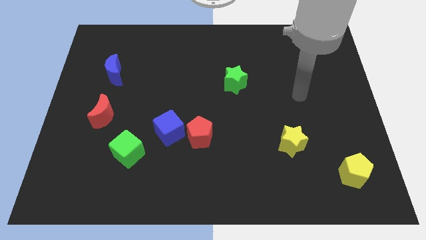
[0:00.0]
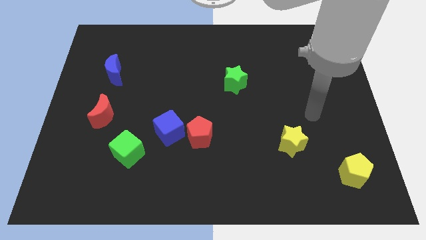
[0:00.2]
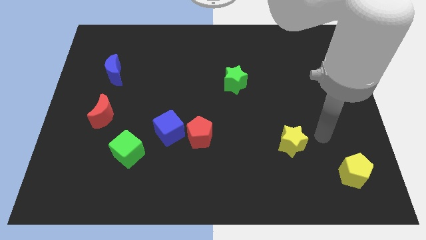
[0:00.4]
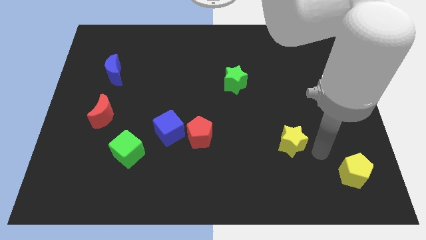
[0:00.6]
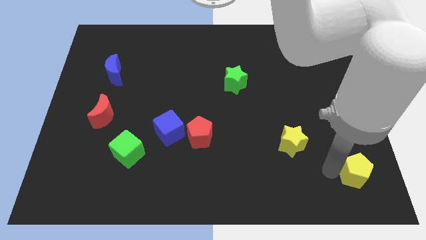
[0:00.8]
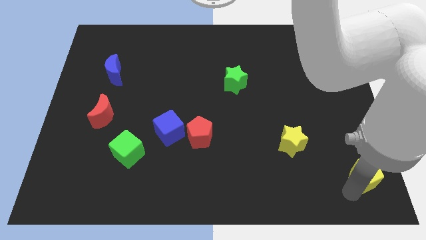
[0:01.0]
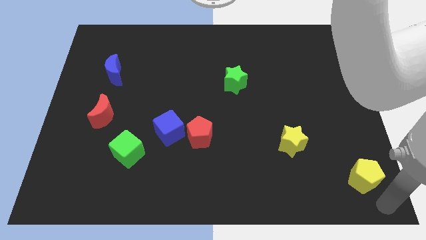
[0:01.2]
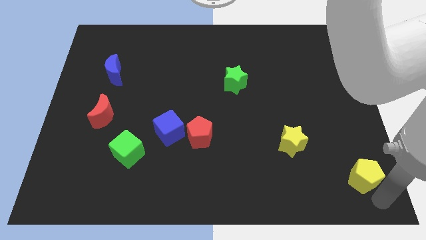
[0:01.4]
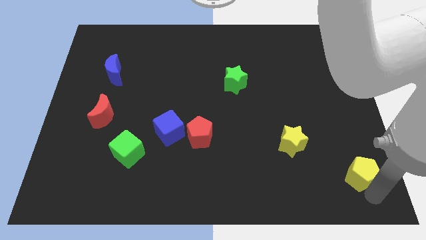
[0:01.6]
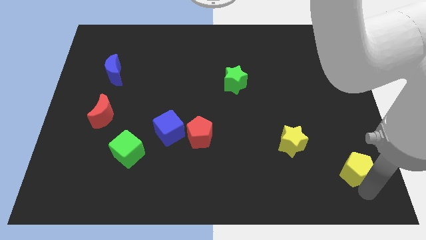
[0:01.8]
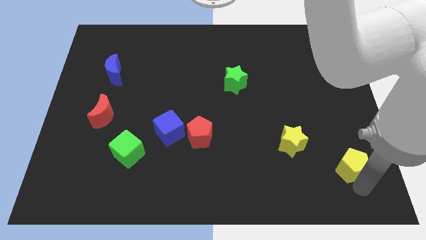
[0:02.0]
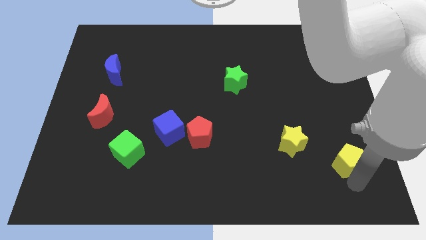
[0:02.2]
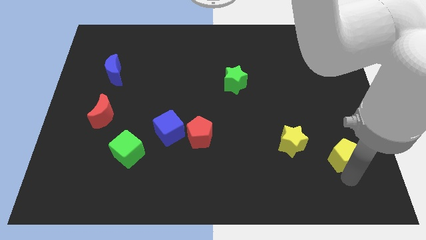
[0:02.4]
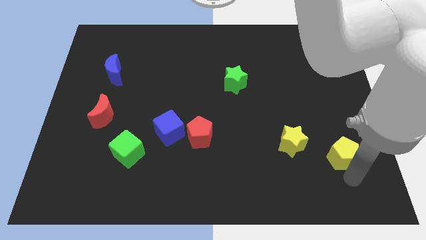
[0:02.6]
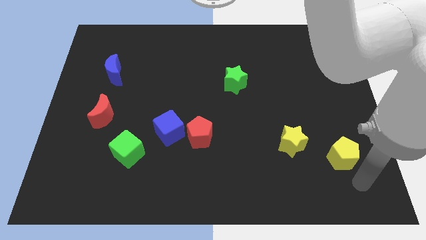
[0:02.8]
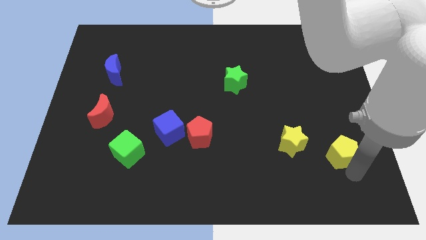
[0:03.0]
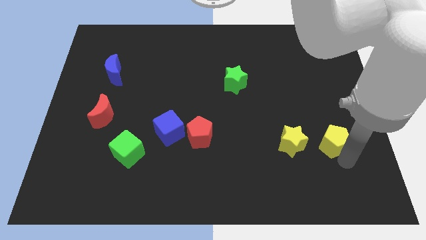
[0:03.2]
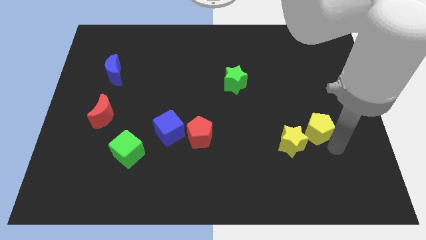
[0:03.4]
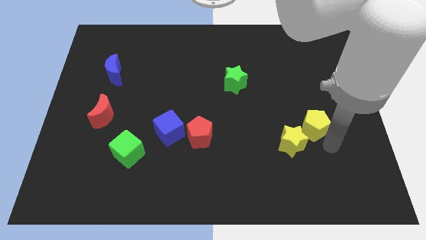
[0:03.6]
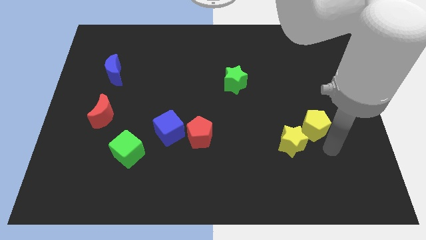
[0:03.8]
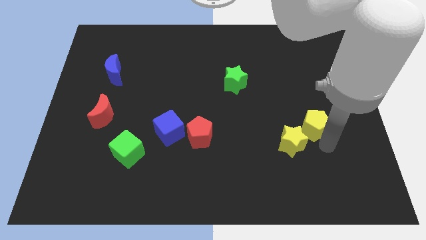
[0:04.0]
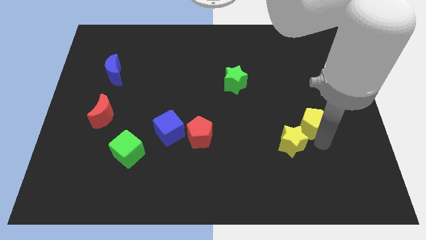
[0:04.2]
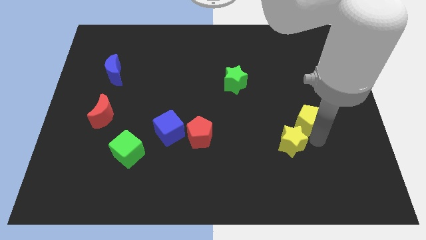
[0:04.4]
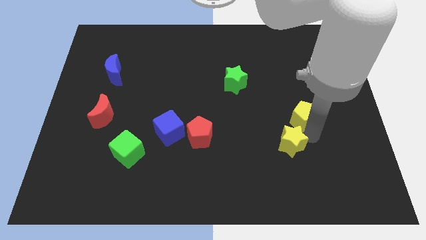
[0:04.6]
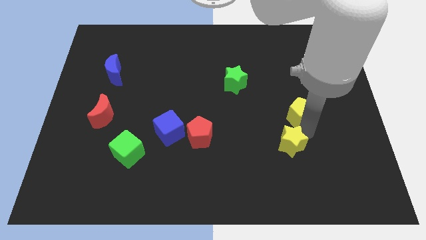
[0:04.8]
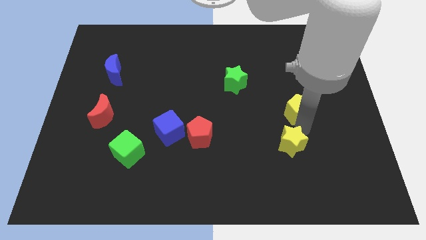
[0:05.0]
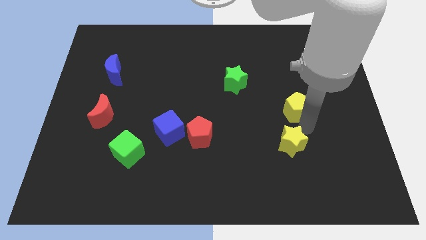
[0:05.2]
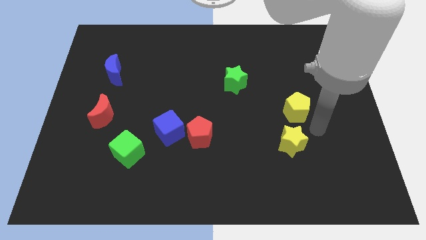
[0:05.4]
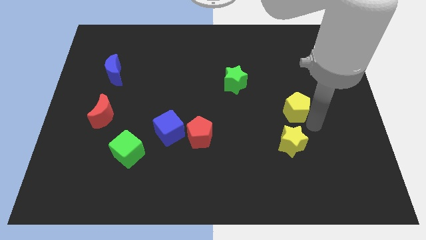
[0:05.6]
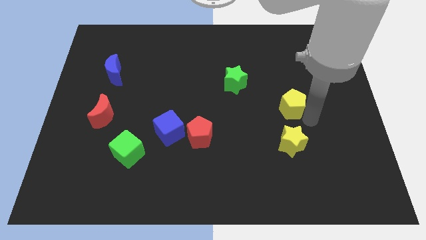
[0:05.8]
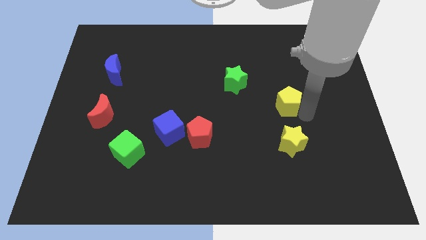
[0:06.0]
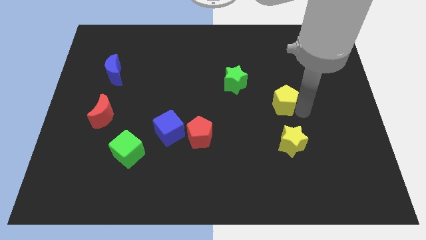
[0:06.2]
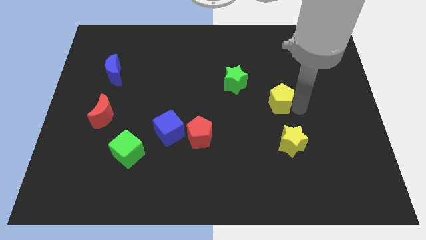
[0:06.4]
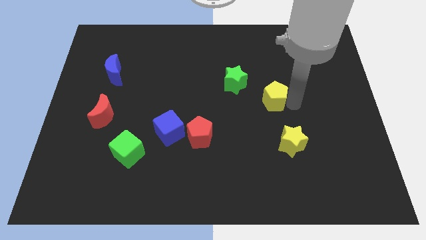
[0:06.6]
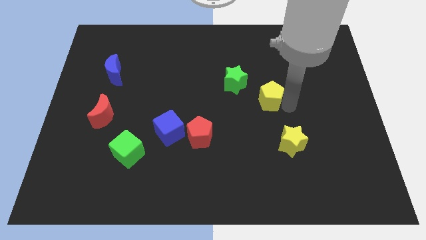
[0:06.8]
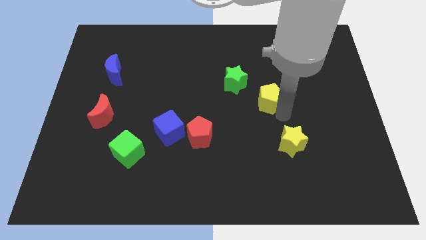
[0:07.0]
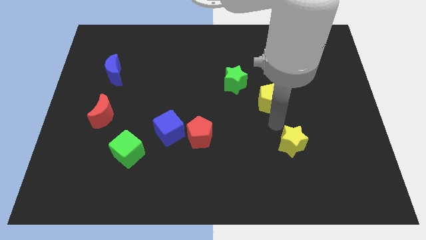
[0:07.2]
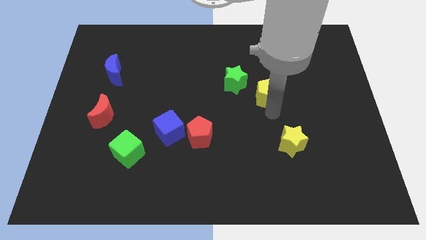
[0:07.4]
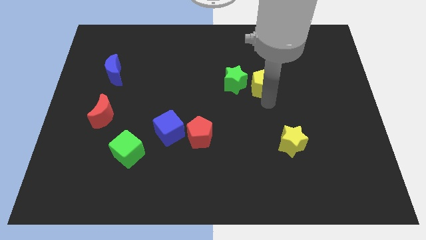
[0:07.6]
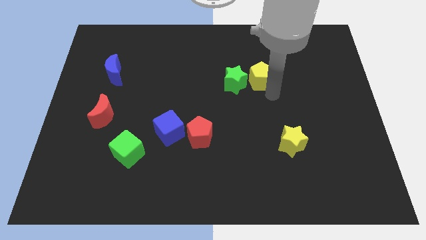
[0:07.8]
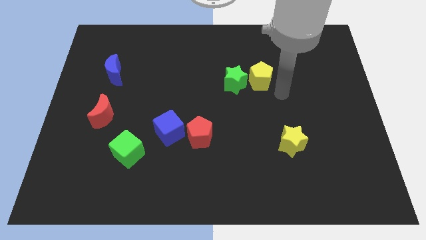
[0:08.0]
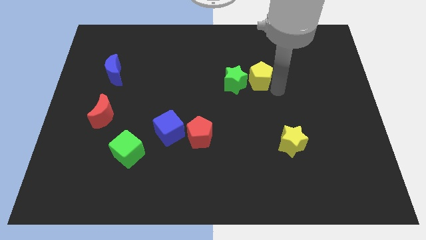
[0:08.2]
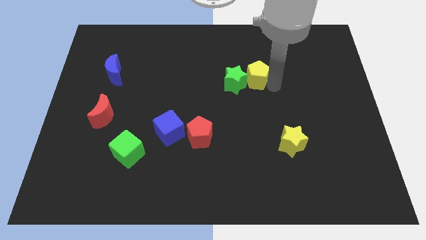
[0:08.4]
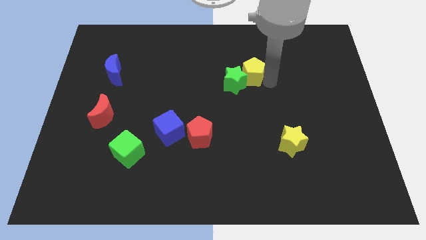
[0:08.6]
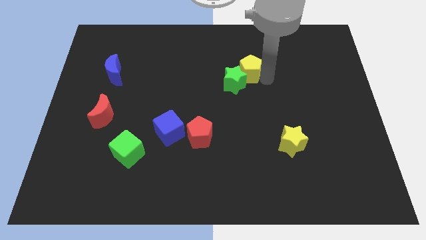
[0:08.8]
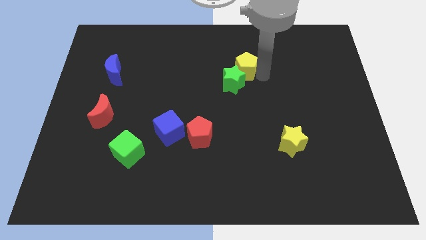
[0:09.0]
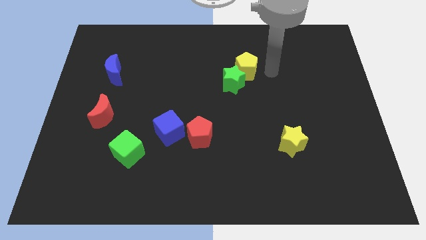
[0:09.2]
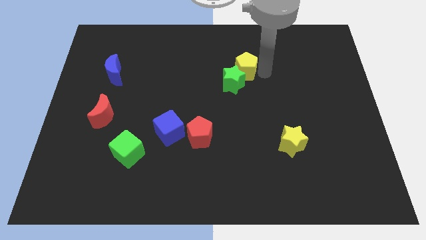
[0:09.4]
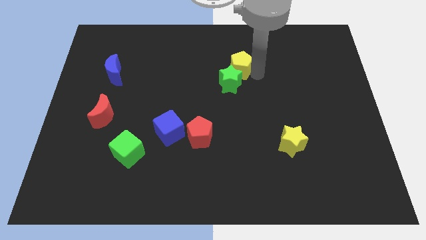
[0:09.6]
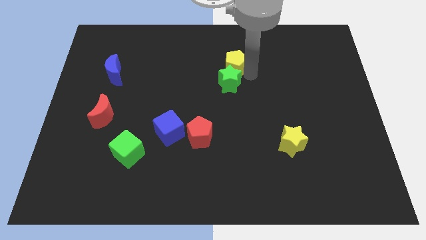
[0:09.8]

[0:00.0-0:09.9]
put the yellow pentagon to the top left of the green star

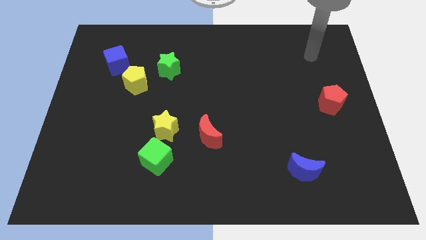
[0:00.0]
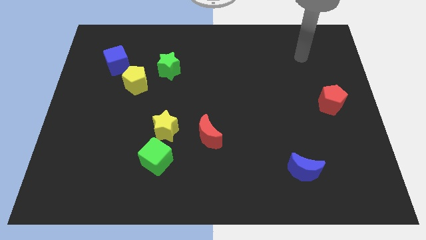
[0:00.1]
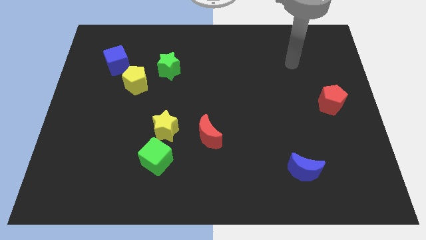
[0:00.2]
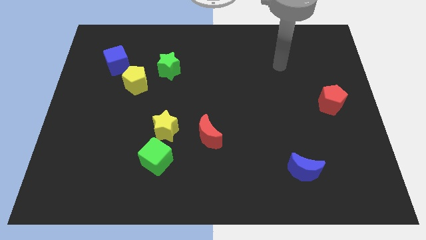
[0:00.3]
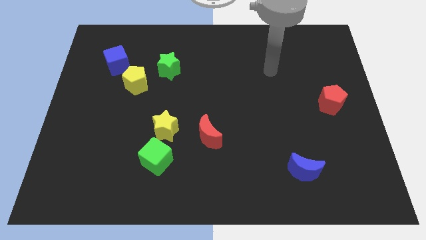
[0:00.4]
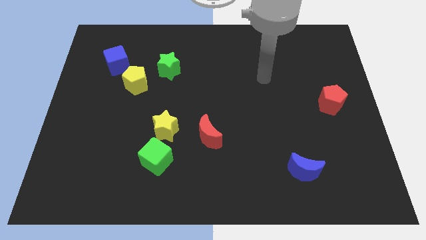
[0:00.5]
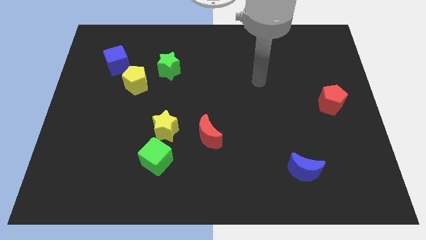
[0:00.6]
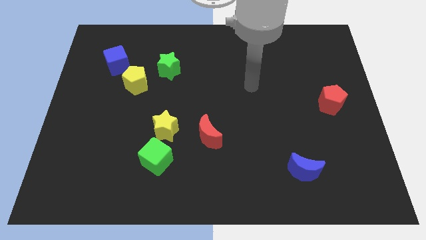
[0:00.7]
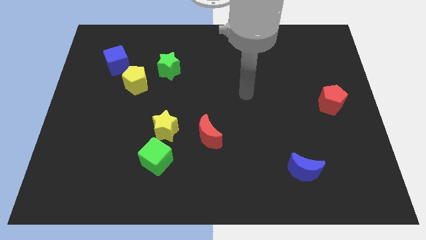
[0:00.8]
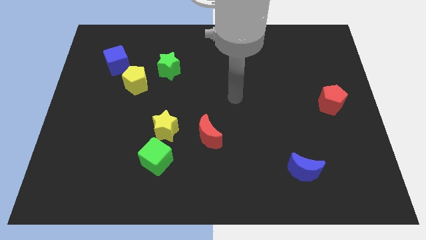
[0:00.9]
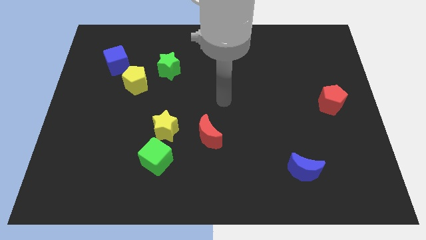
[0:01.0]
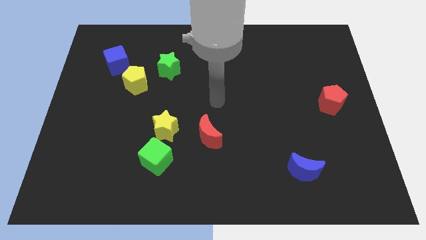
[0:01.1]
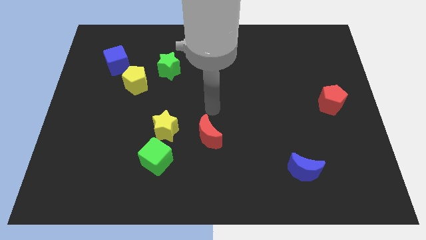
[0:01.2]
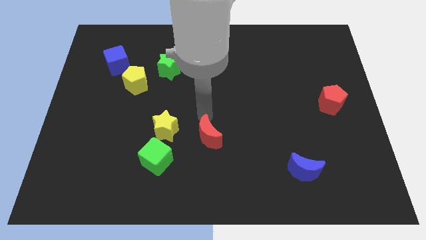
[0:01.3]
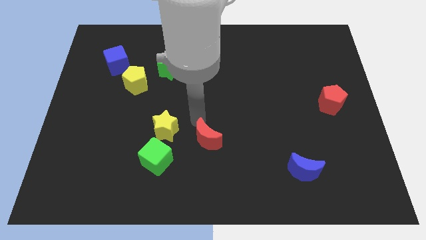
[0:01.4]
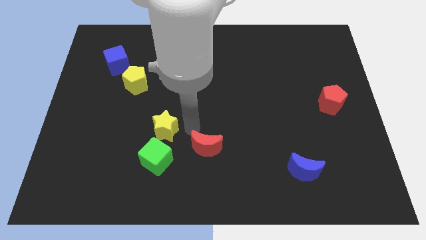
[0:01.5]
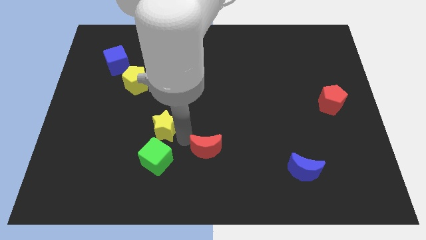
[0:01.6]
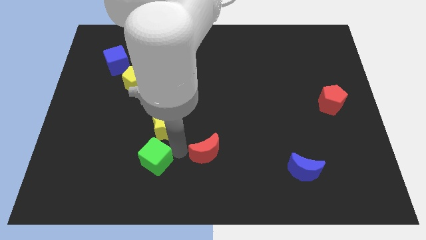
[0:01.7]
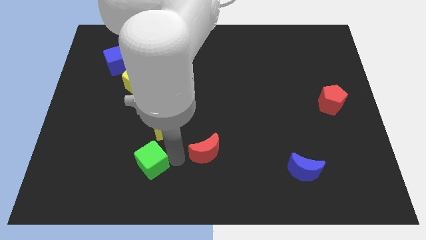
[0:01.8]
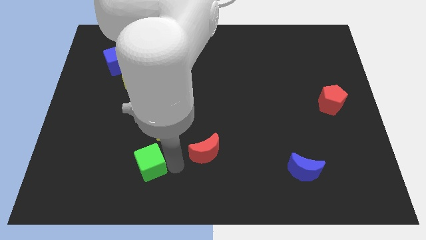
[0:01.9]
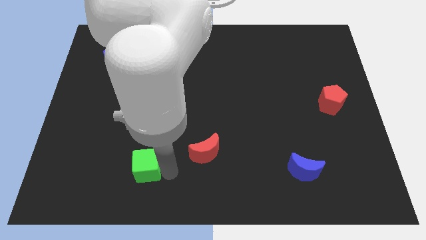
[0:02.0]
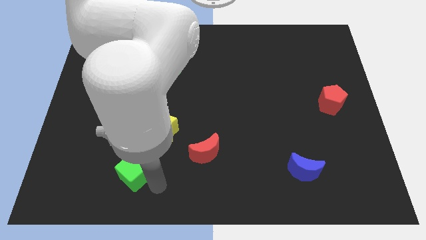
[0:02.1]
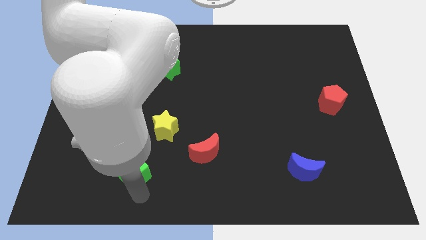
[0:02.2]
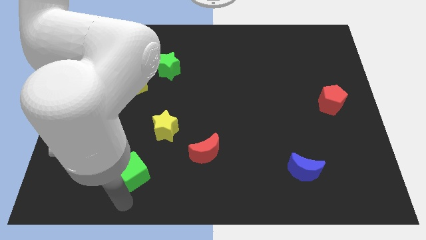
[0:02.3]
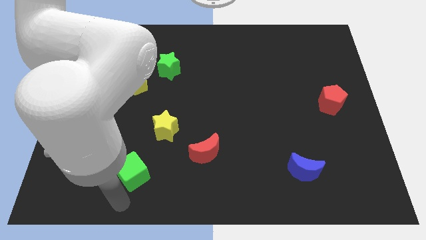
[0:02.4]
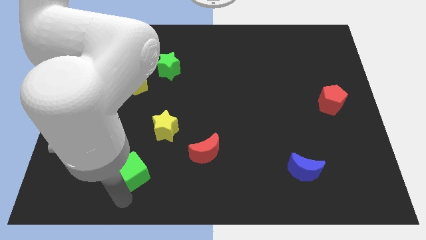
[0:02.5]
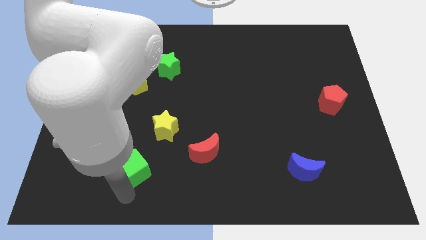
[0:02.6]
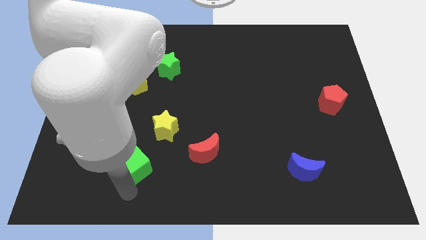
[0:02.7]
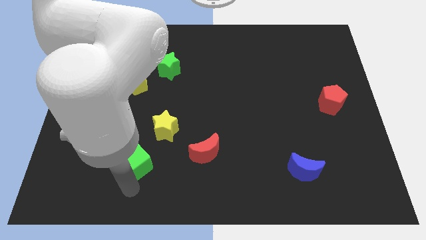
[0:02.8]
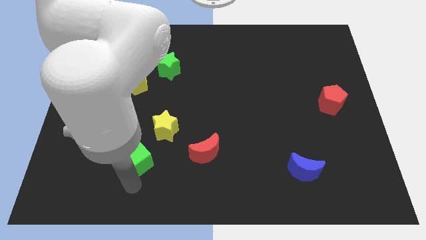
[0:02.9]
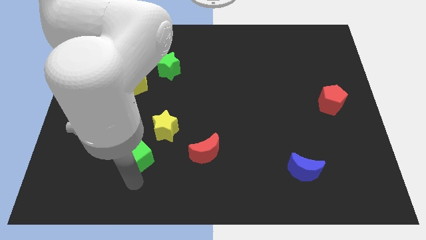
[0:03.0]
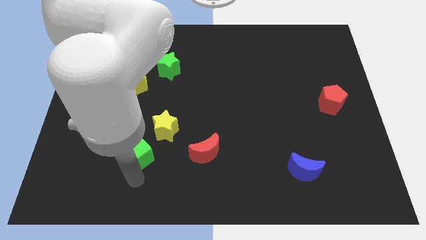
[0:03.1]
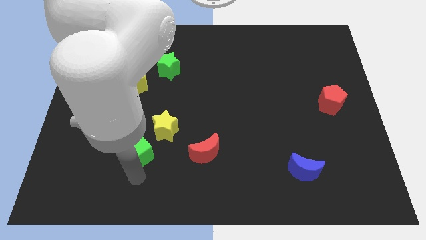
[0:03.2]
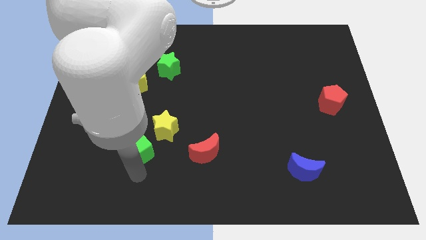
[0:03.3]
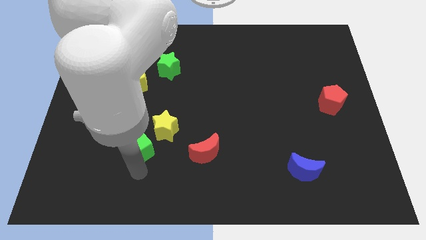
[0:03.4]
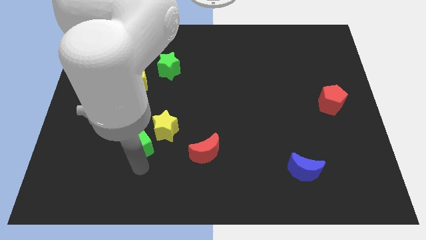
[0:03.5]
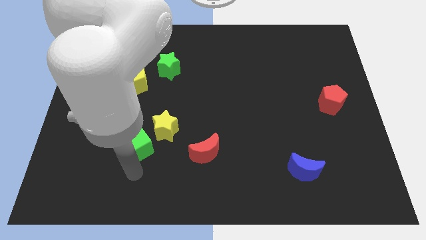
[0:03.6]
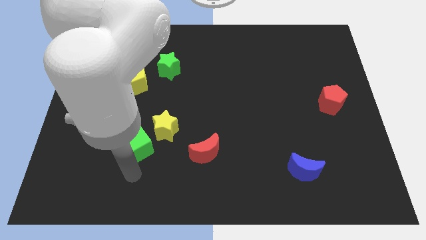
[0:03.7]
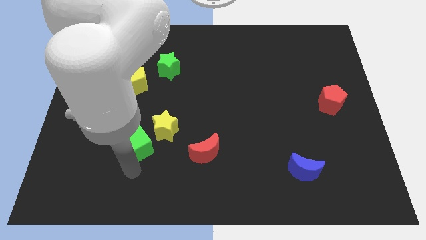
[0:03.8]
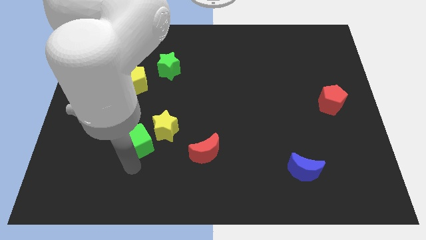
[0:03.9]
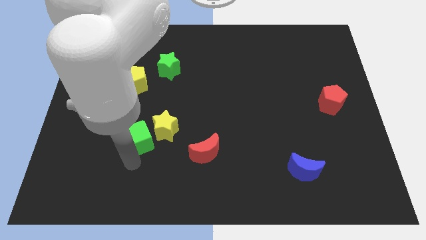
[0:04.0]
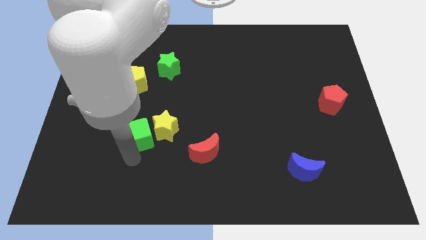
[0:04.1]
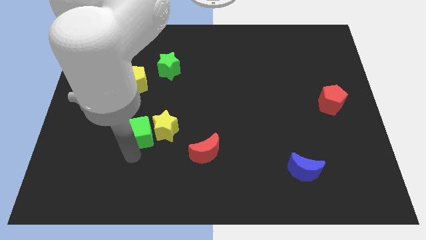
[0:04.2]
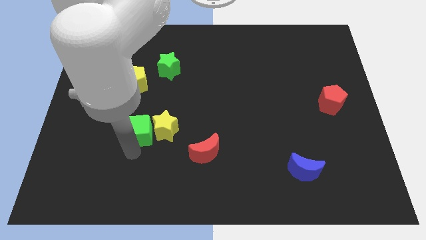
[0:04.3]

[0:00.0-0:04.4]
put the green cube diagonally up and to the left of the yellow star
